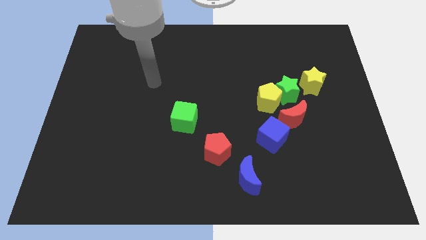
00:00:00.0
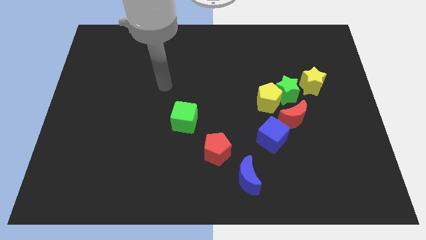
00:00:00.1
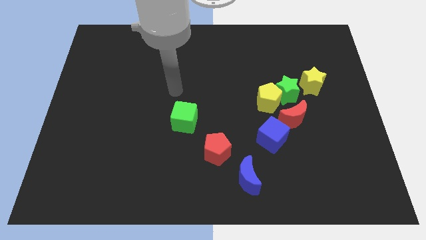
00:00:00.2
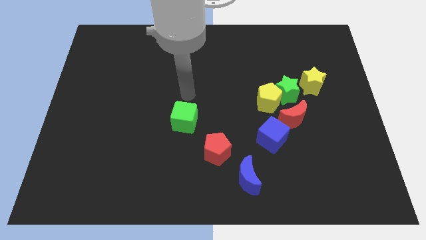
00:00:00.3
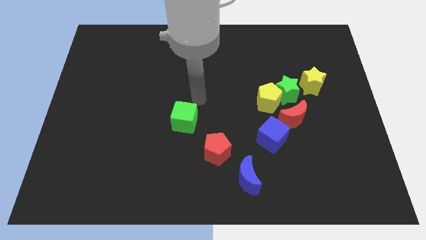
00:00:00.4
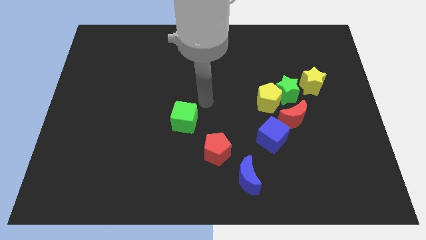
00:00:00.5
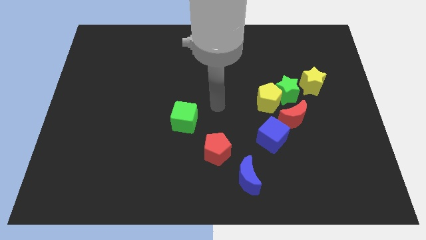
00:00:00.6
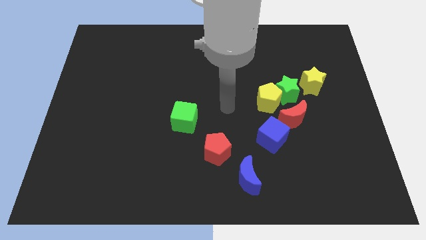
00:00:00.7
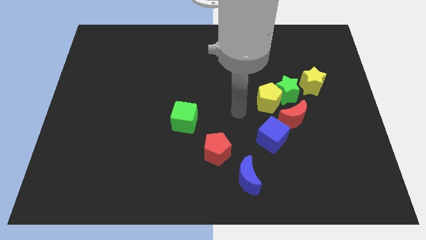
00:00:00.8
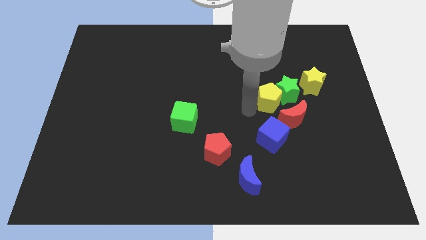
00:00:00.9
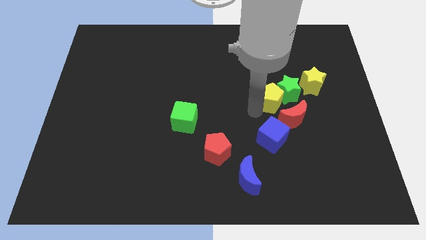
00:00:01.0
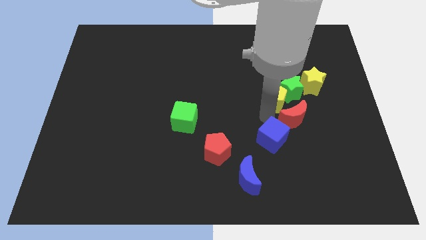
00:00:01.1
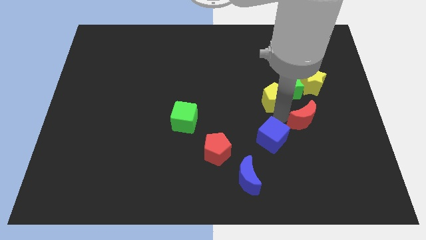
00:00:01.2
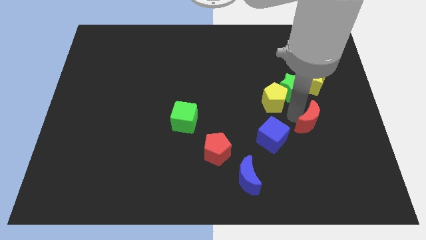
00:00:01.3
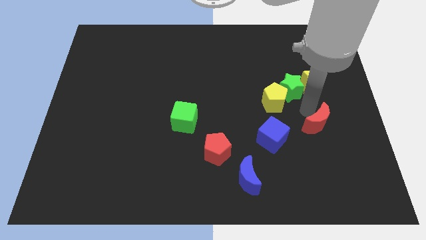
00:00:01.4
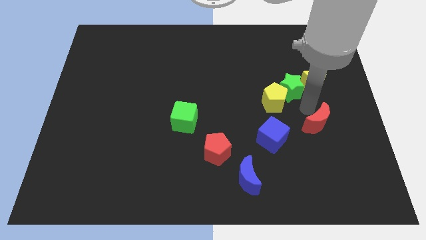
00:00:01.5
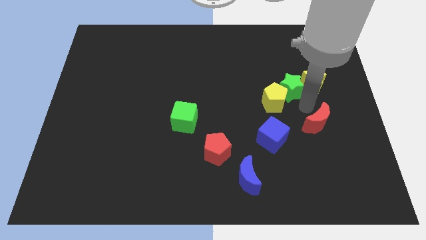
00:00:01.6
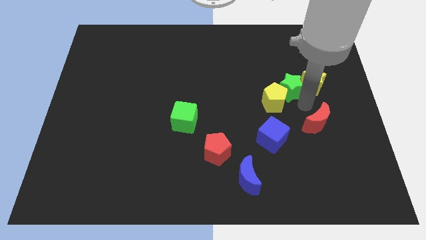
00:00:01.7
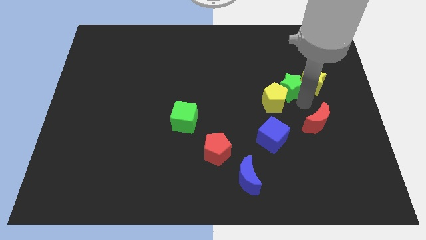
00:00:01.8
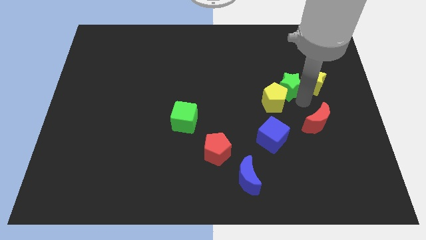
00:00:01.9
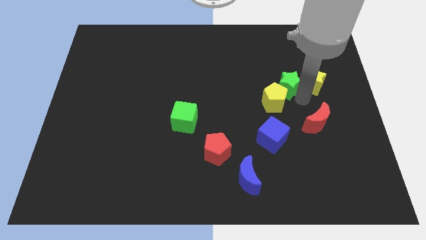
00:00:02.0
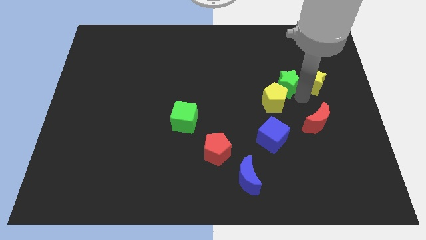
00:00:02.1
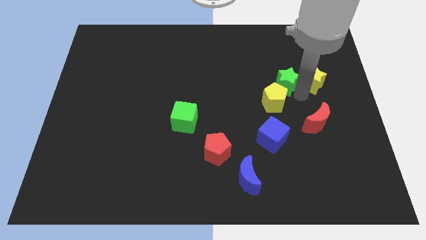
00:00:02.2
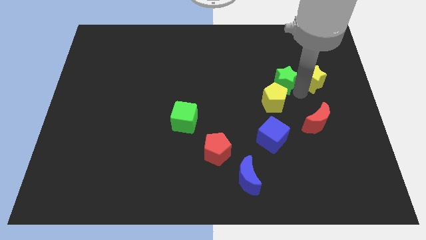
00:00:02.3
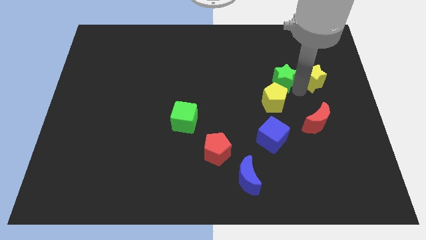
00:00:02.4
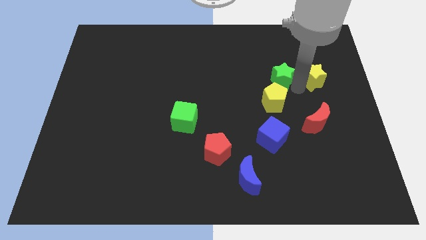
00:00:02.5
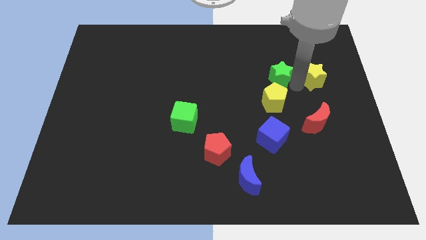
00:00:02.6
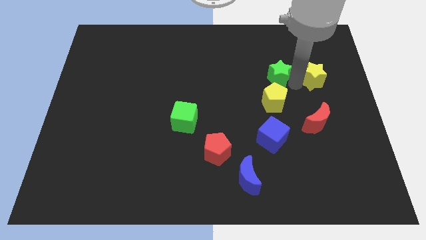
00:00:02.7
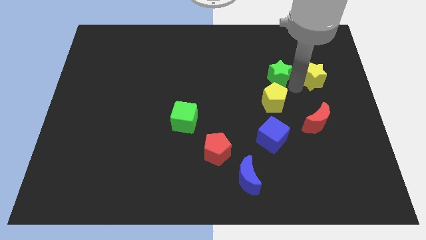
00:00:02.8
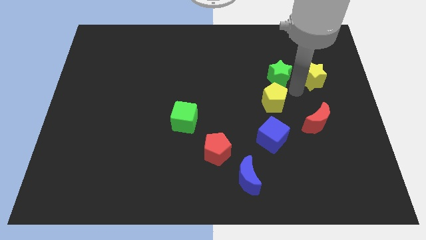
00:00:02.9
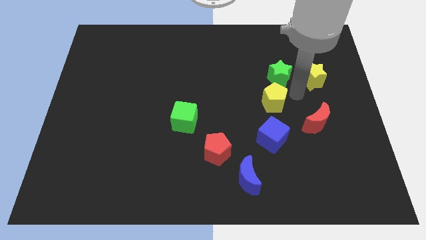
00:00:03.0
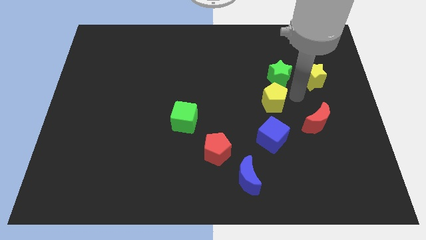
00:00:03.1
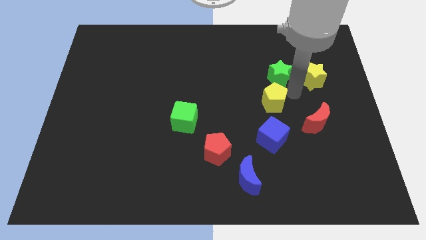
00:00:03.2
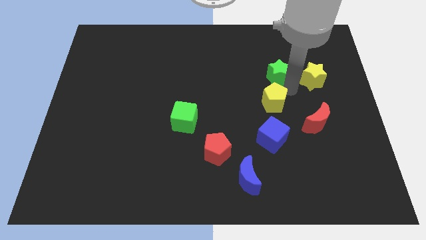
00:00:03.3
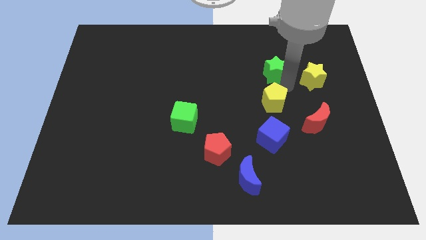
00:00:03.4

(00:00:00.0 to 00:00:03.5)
separate the green star from the yellow pentagon, yellow star, and red moon

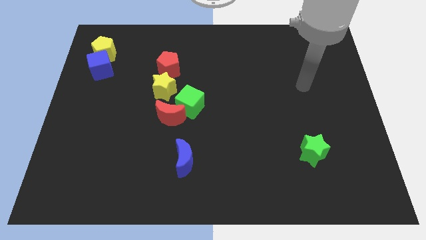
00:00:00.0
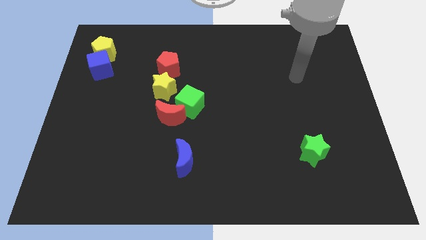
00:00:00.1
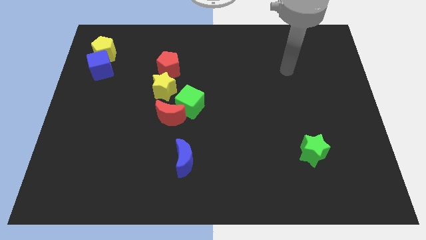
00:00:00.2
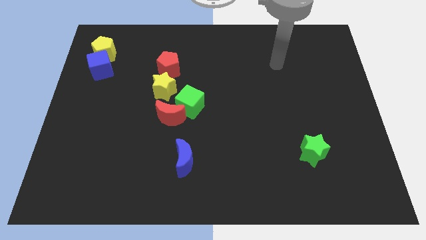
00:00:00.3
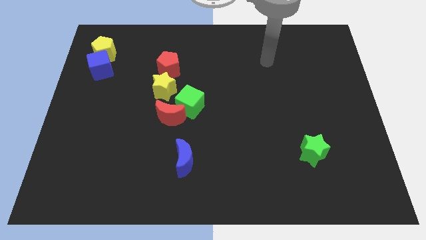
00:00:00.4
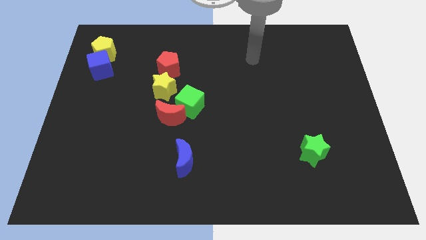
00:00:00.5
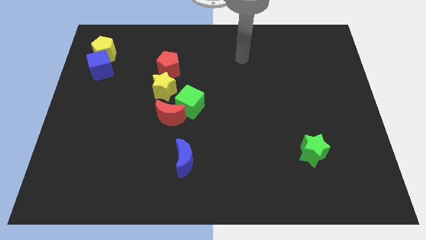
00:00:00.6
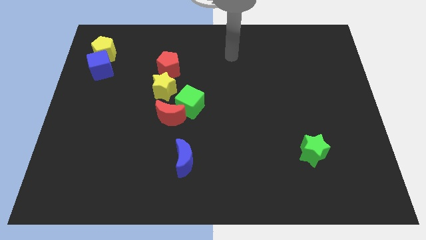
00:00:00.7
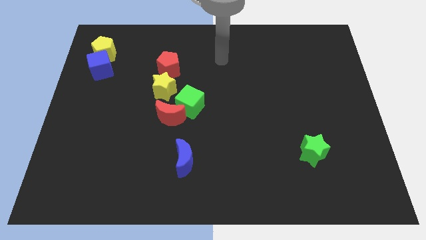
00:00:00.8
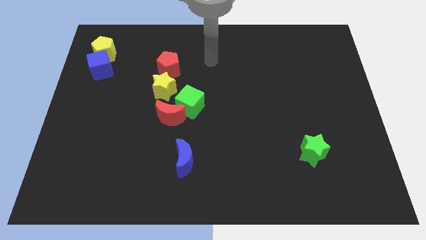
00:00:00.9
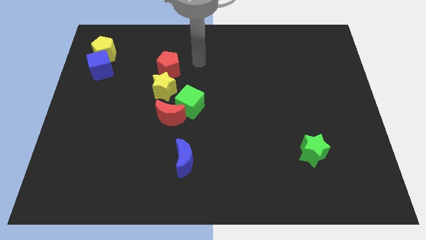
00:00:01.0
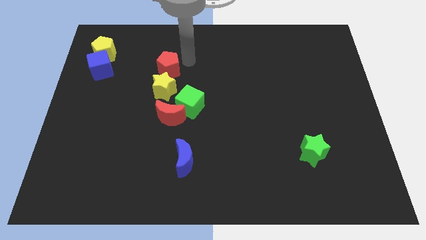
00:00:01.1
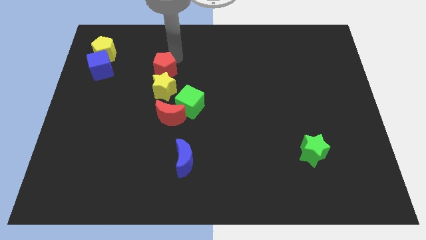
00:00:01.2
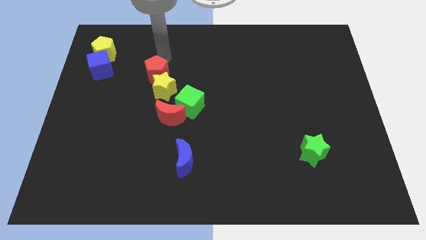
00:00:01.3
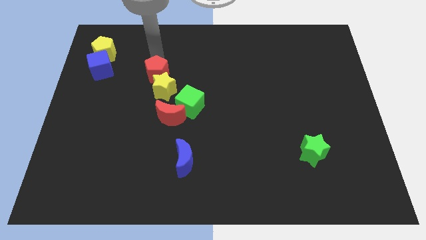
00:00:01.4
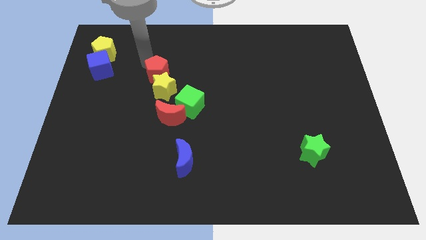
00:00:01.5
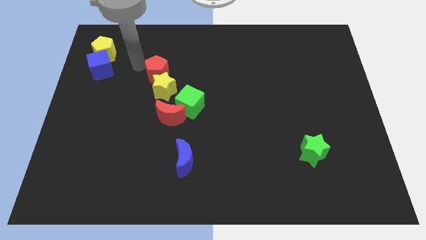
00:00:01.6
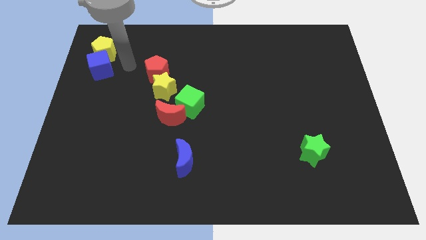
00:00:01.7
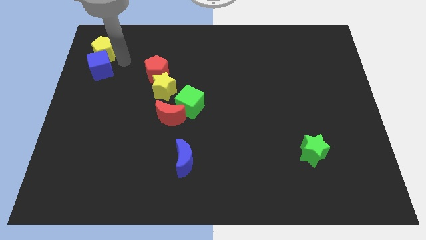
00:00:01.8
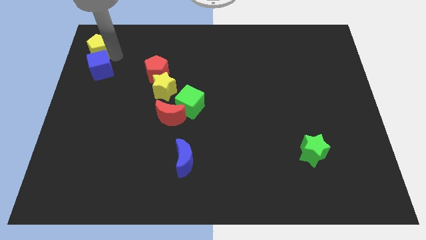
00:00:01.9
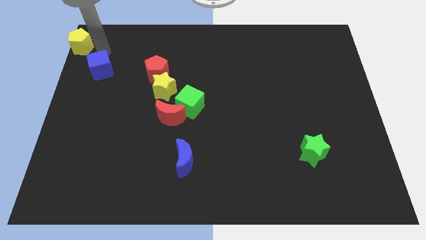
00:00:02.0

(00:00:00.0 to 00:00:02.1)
move the blue cube away from the yellow pentagon

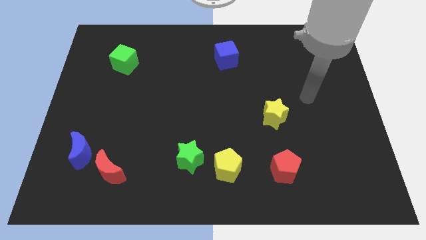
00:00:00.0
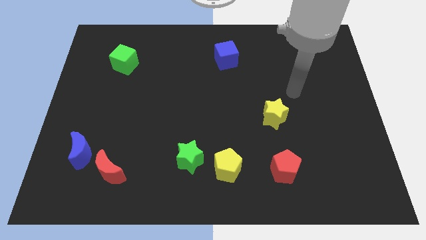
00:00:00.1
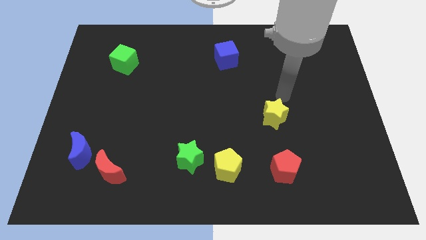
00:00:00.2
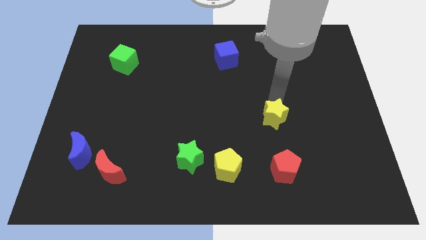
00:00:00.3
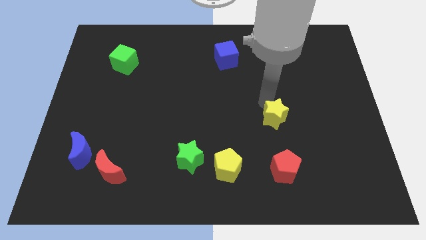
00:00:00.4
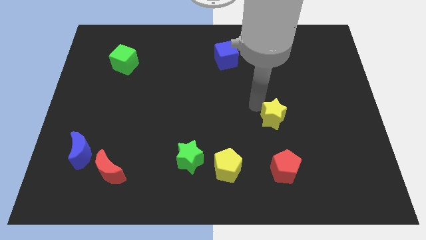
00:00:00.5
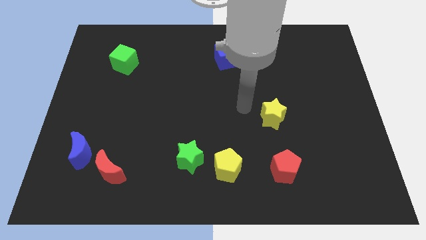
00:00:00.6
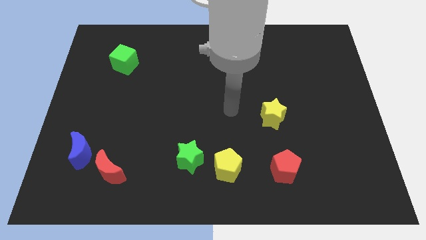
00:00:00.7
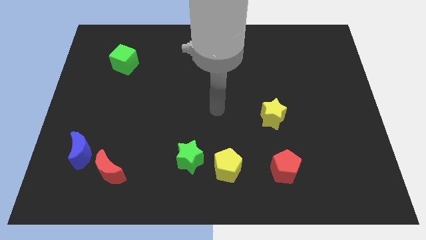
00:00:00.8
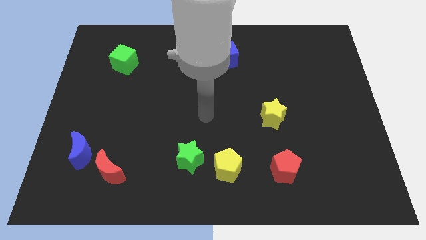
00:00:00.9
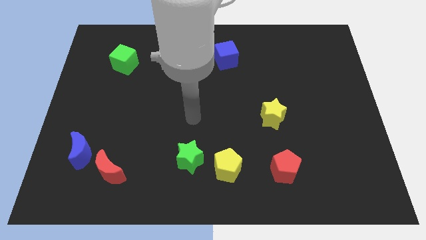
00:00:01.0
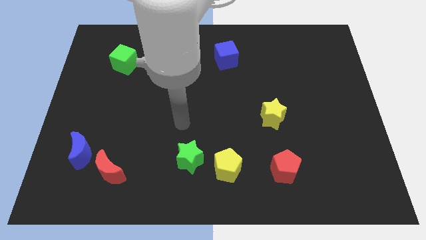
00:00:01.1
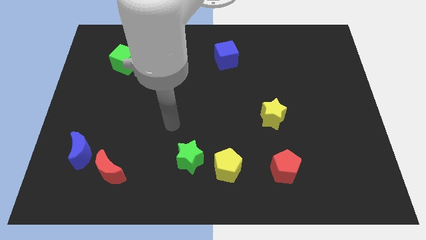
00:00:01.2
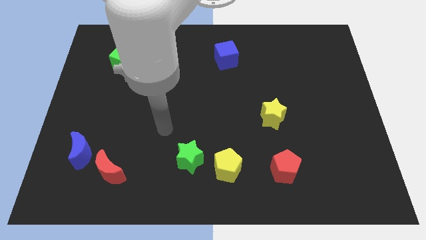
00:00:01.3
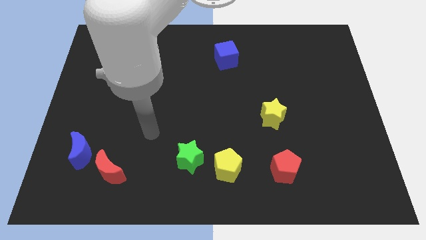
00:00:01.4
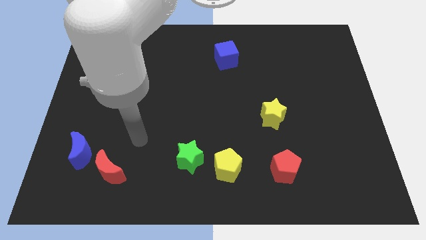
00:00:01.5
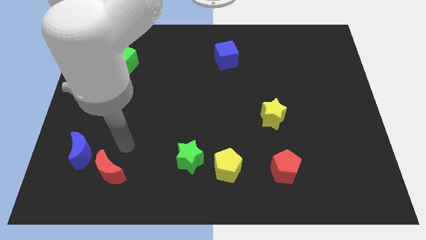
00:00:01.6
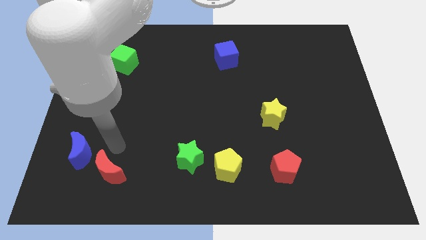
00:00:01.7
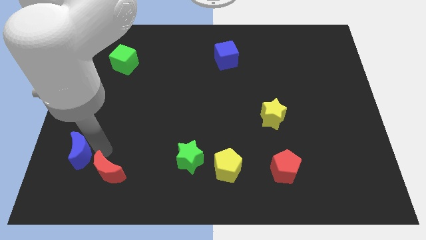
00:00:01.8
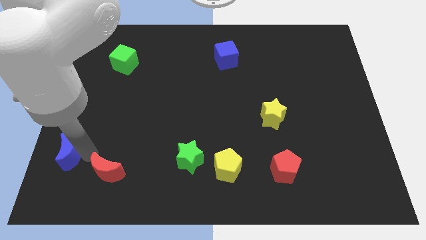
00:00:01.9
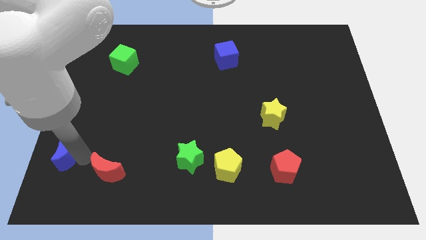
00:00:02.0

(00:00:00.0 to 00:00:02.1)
pull the red moon apart from the blue moon

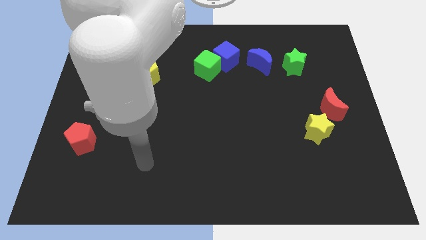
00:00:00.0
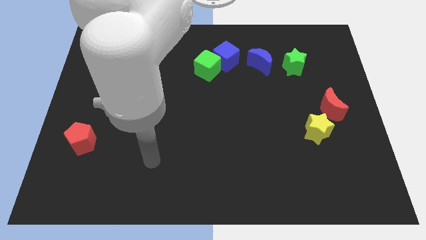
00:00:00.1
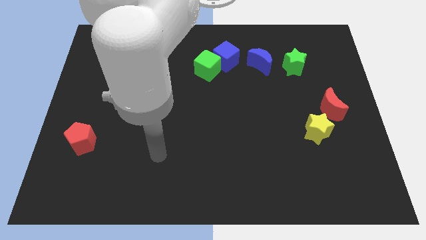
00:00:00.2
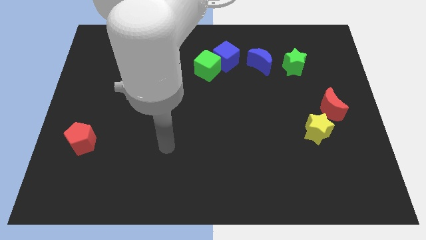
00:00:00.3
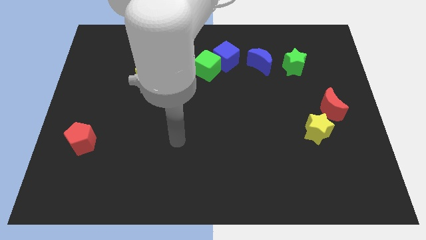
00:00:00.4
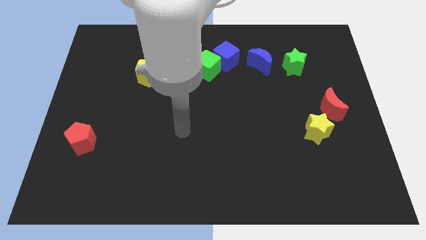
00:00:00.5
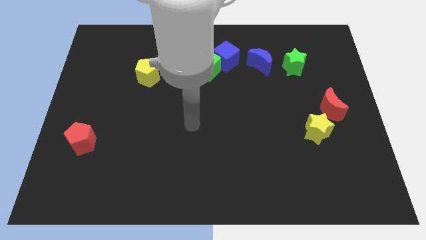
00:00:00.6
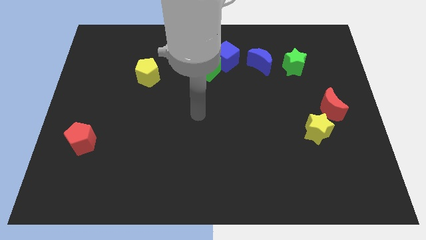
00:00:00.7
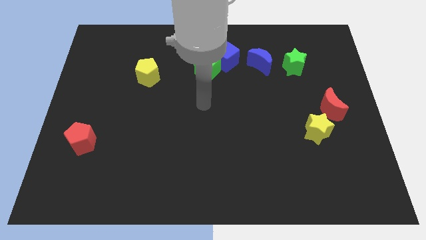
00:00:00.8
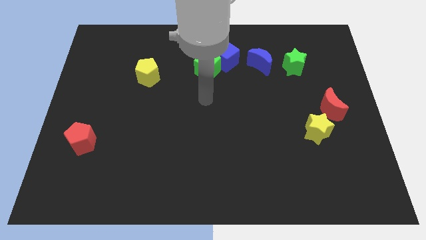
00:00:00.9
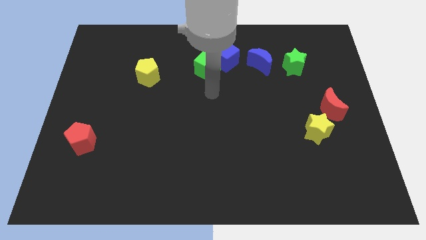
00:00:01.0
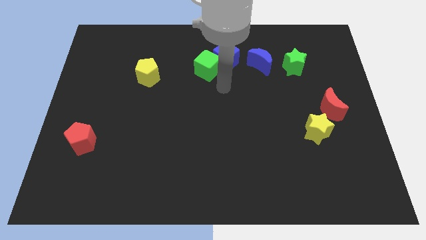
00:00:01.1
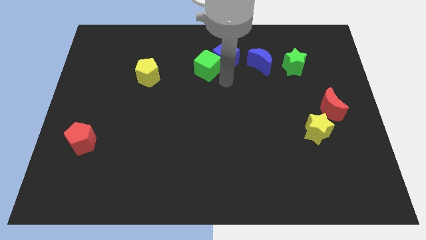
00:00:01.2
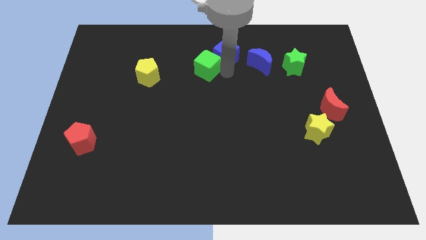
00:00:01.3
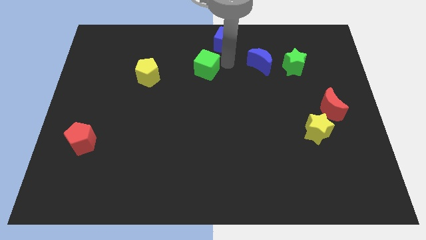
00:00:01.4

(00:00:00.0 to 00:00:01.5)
pull the green cube apart from the blue cube

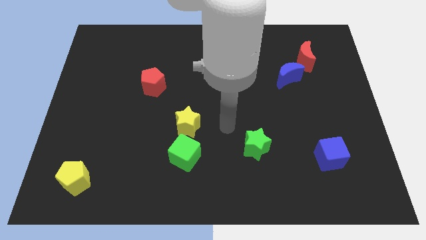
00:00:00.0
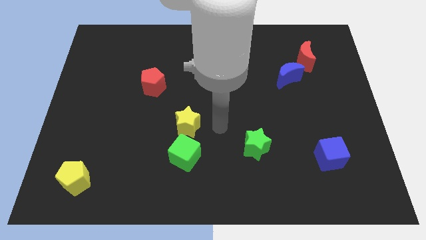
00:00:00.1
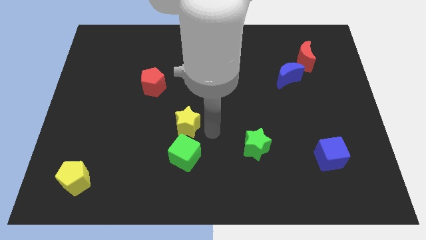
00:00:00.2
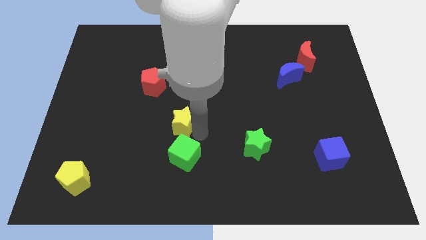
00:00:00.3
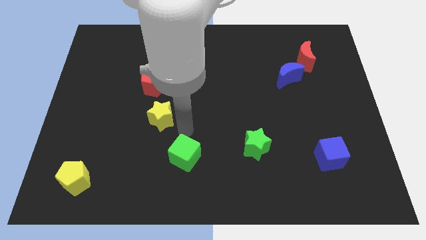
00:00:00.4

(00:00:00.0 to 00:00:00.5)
move the green cube away from the yellow star
